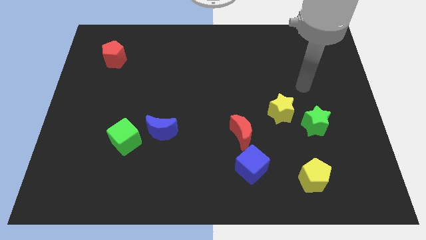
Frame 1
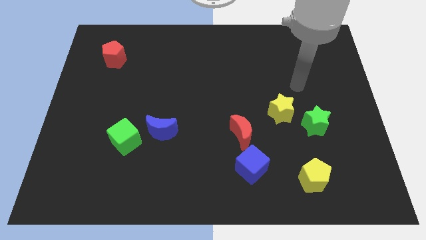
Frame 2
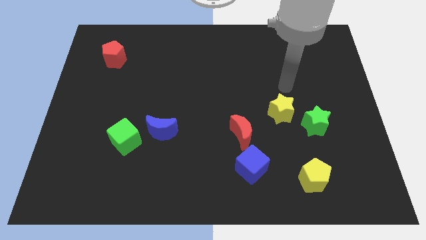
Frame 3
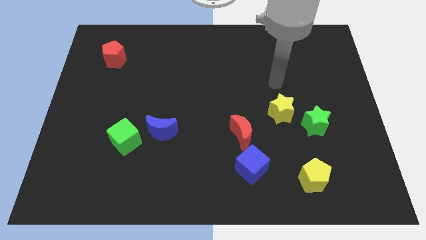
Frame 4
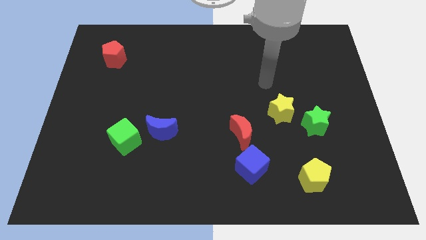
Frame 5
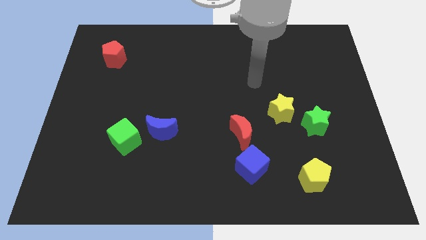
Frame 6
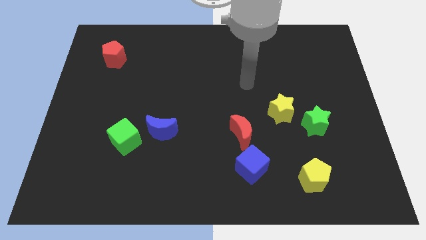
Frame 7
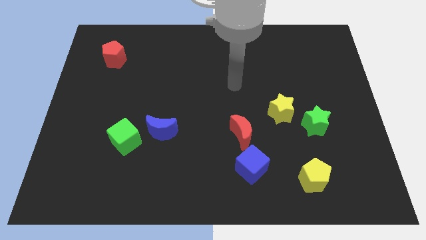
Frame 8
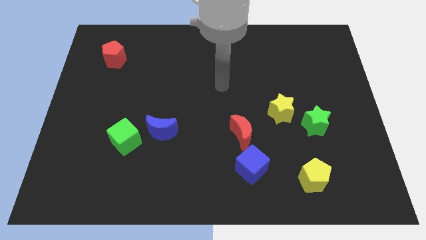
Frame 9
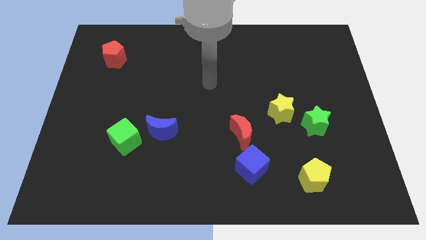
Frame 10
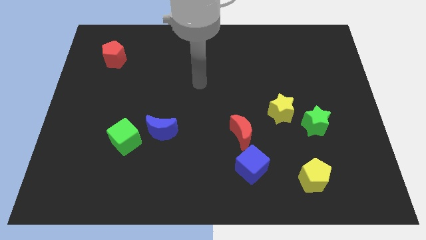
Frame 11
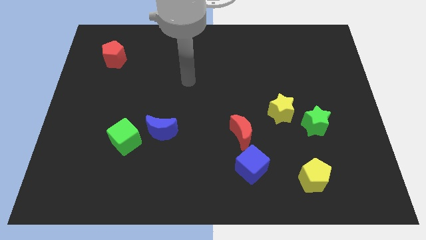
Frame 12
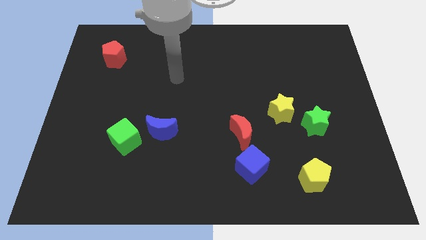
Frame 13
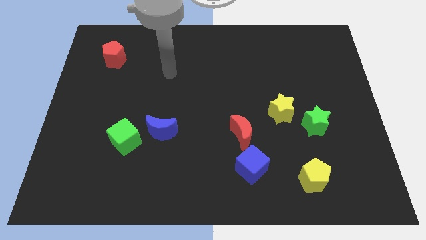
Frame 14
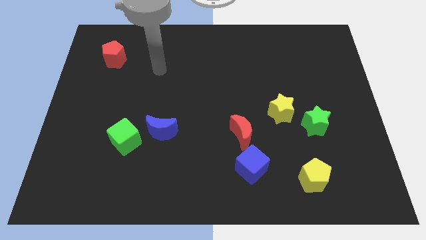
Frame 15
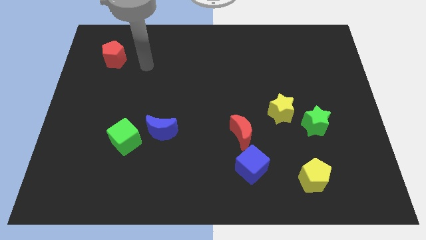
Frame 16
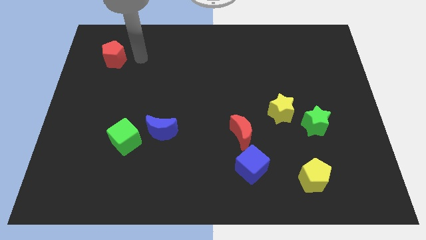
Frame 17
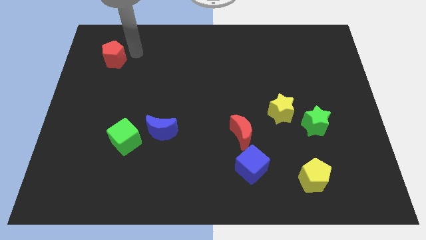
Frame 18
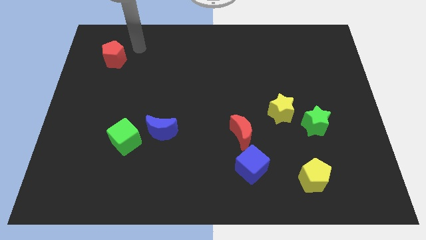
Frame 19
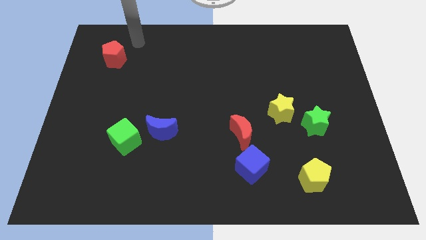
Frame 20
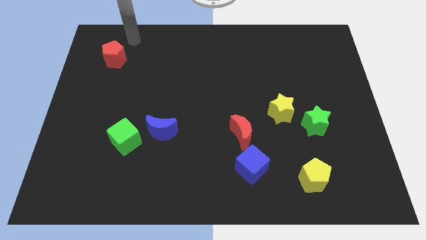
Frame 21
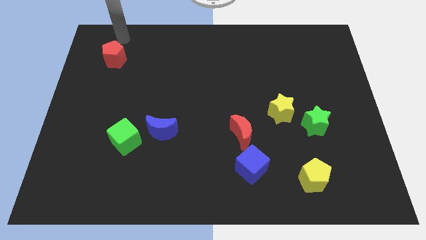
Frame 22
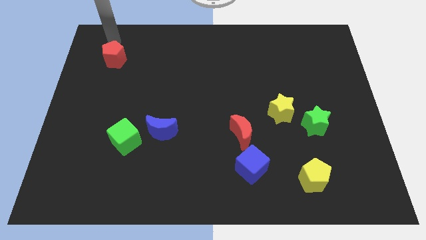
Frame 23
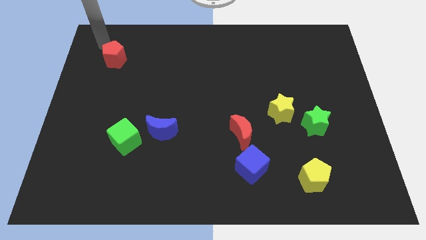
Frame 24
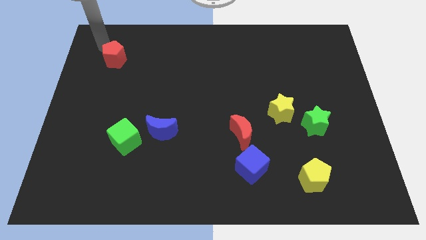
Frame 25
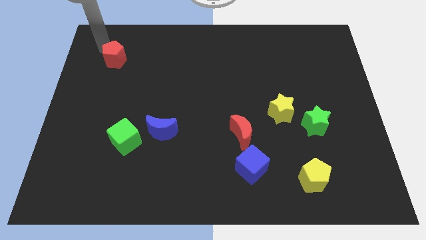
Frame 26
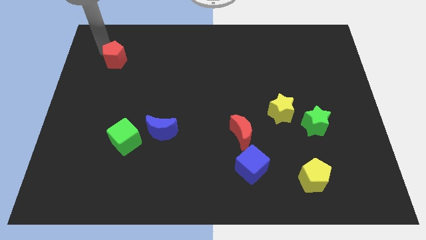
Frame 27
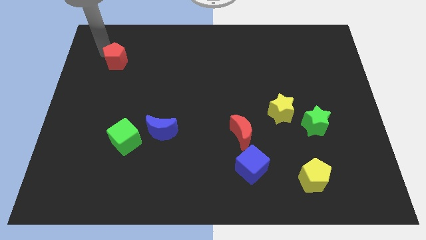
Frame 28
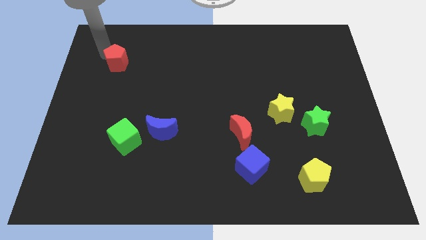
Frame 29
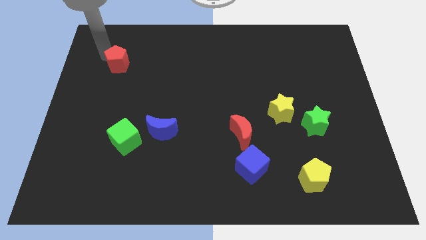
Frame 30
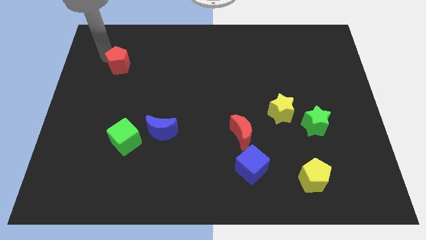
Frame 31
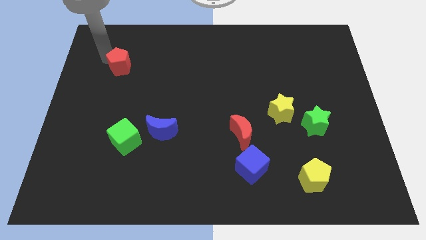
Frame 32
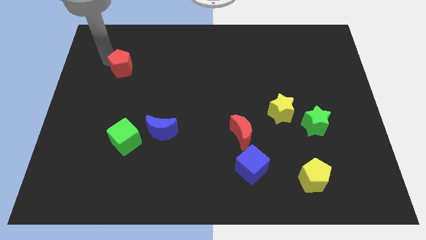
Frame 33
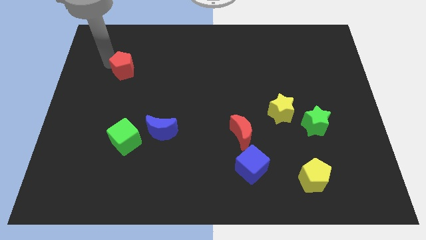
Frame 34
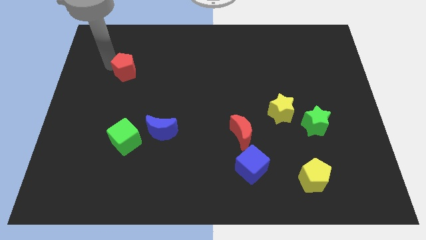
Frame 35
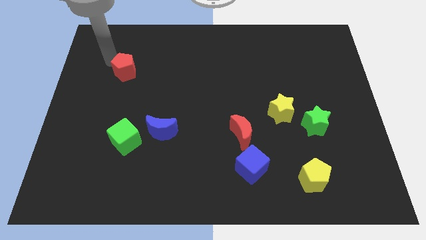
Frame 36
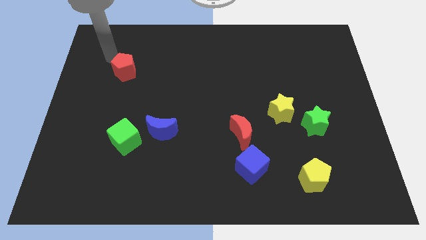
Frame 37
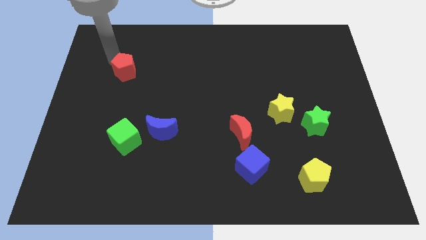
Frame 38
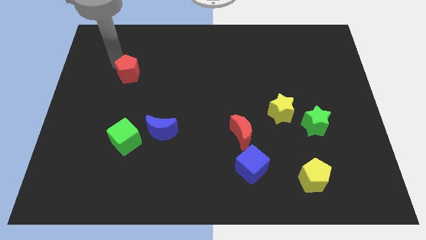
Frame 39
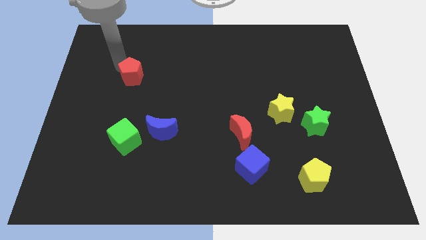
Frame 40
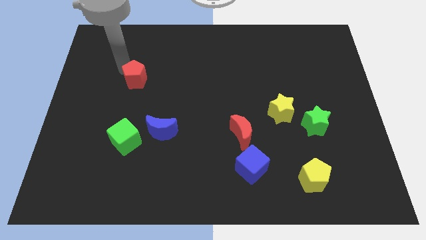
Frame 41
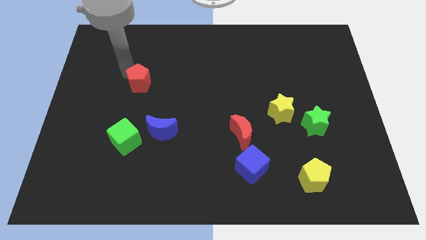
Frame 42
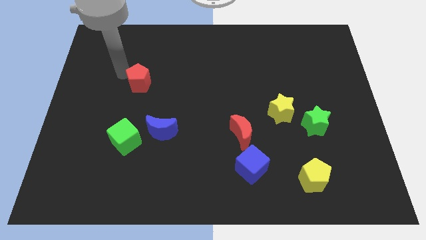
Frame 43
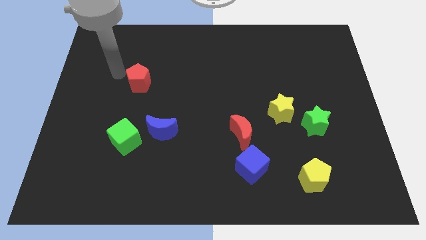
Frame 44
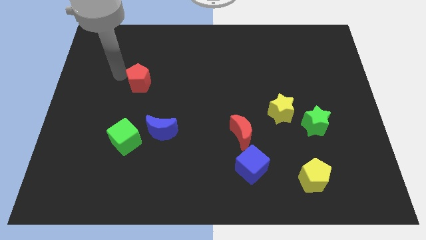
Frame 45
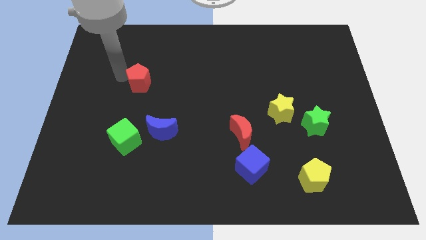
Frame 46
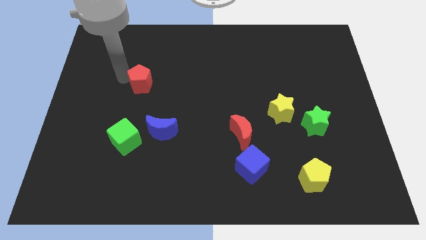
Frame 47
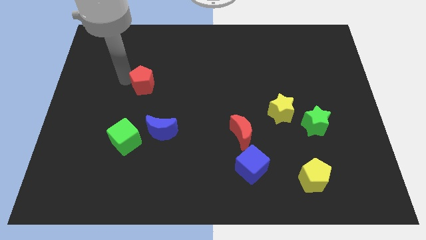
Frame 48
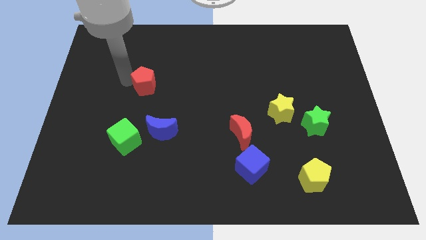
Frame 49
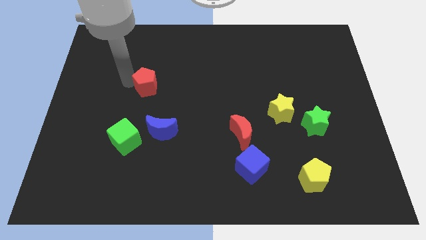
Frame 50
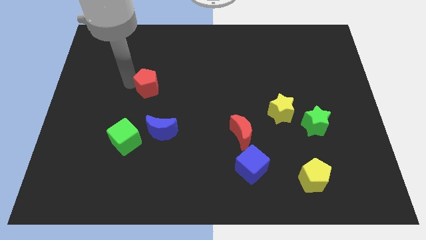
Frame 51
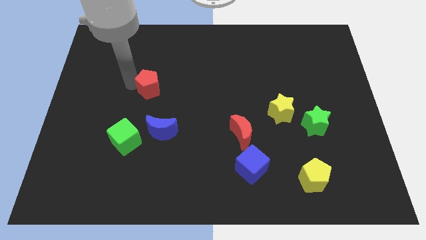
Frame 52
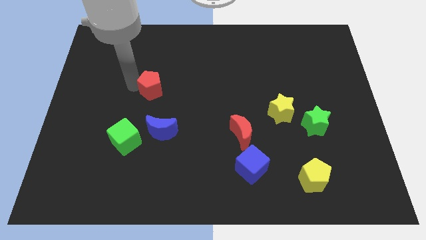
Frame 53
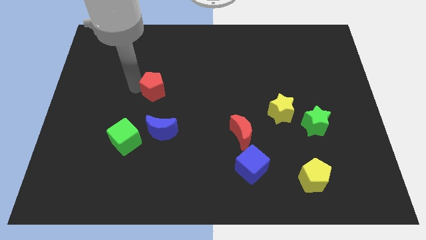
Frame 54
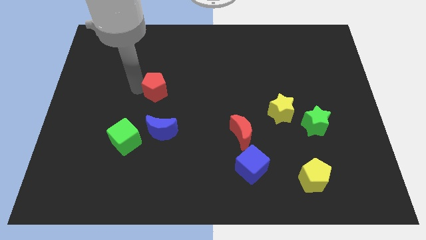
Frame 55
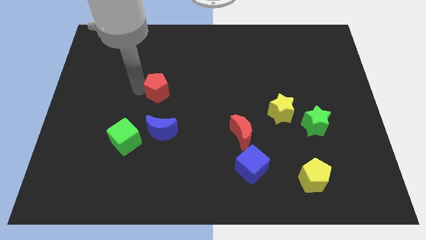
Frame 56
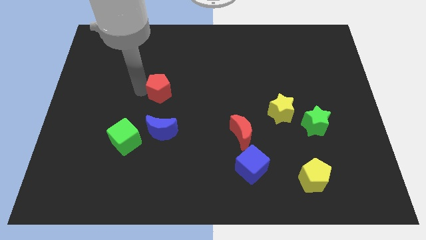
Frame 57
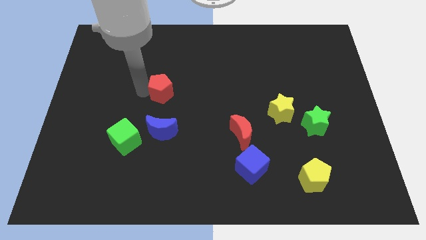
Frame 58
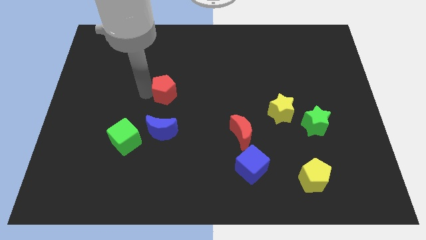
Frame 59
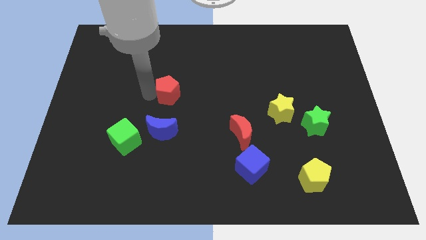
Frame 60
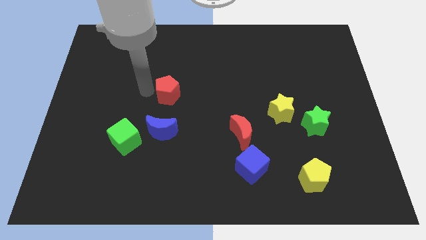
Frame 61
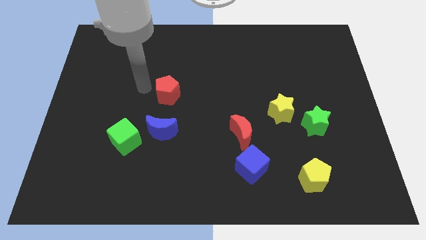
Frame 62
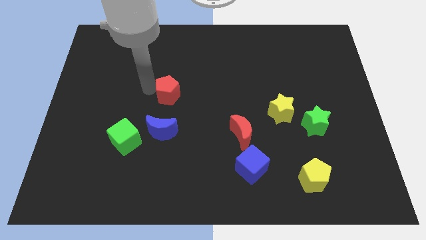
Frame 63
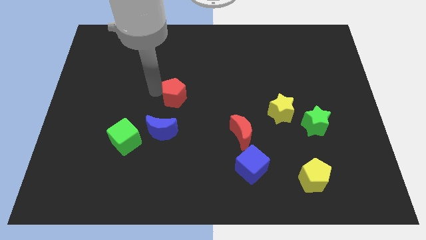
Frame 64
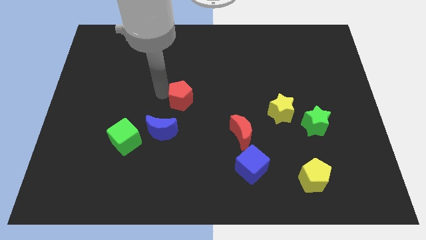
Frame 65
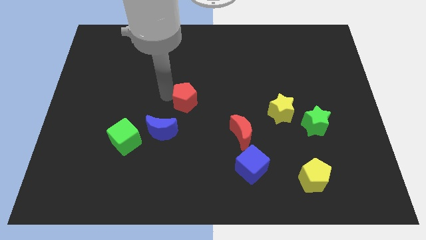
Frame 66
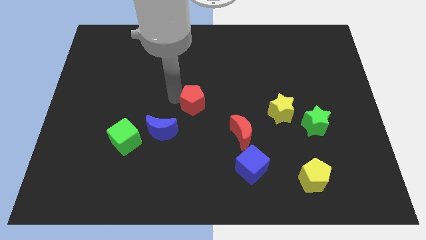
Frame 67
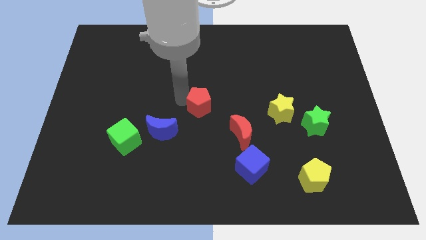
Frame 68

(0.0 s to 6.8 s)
move the red pentagon diagonally up and to the left of the red moon
